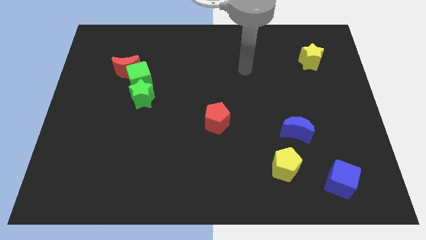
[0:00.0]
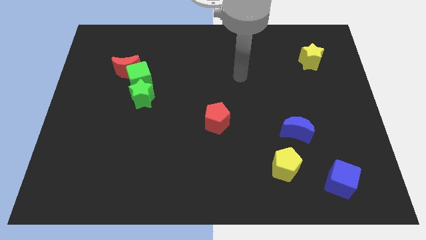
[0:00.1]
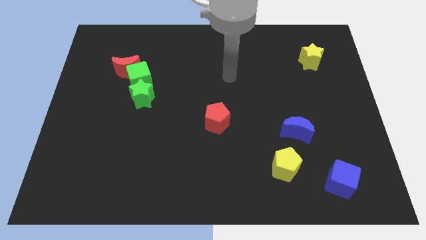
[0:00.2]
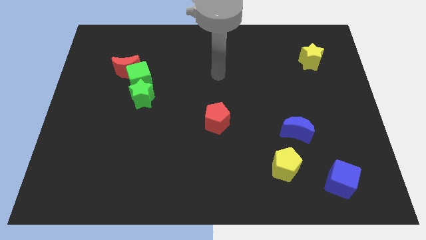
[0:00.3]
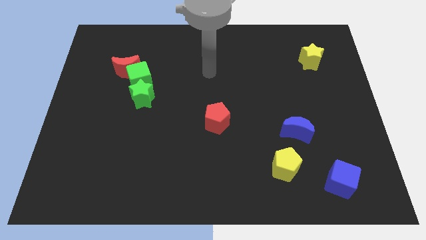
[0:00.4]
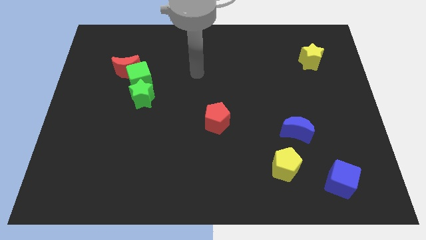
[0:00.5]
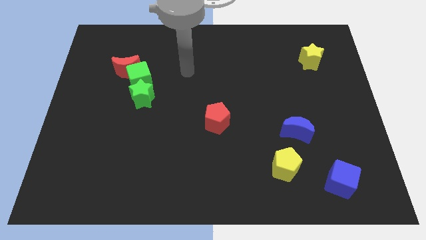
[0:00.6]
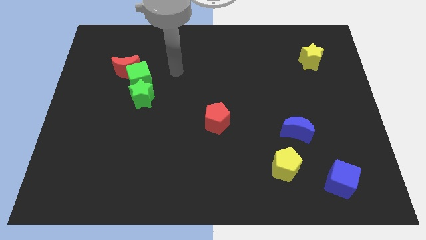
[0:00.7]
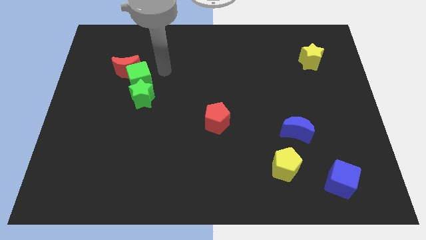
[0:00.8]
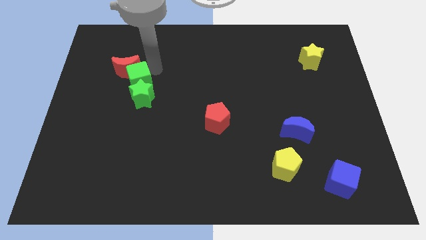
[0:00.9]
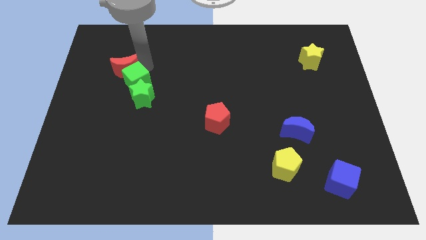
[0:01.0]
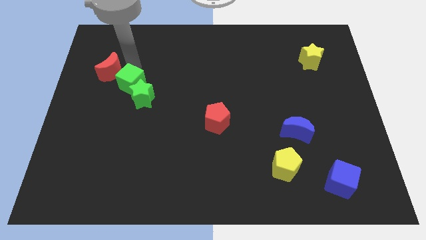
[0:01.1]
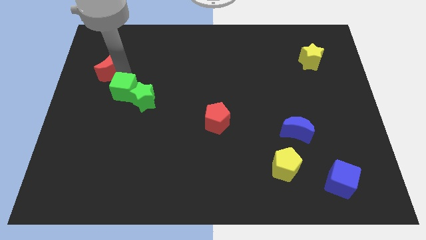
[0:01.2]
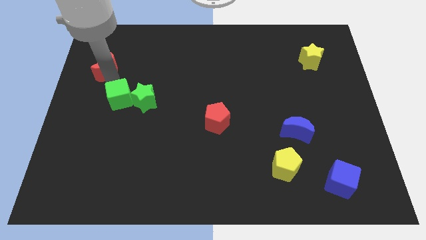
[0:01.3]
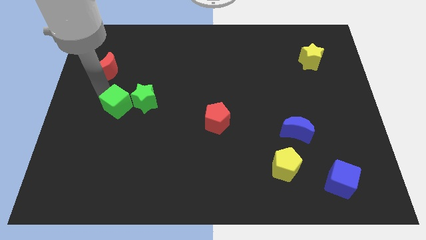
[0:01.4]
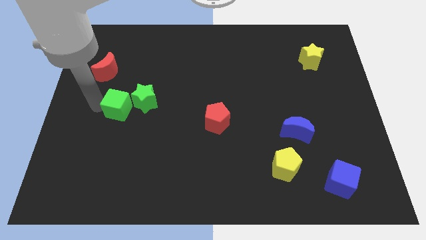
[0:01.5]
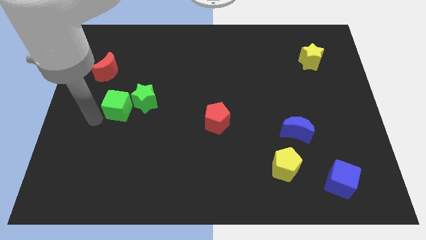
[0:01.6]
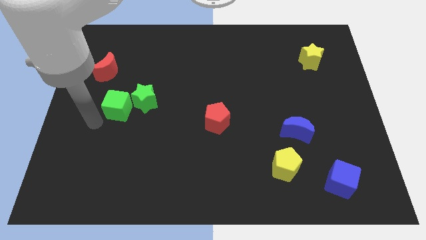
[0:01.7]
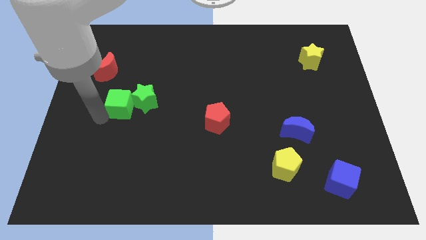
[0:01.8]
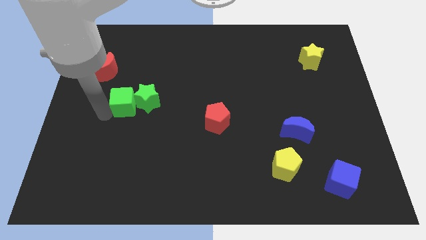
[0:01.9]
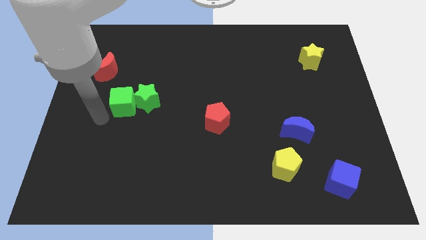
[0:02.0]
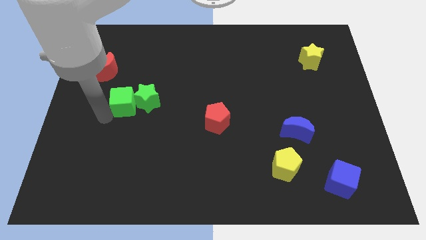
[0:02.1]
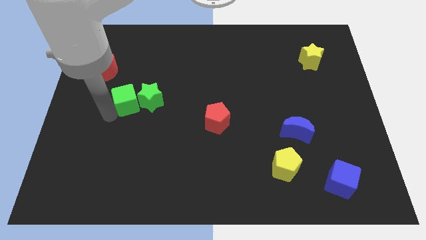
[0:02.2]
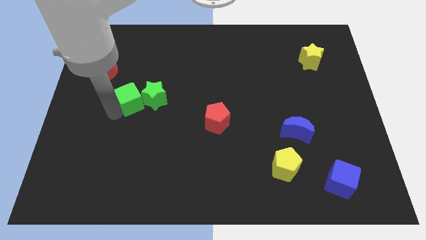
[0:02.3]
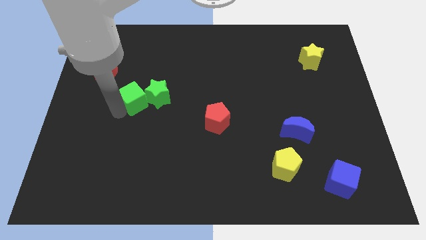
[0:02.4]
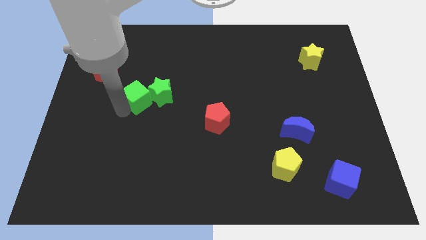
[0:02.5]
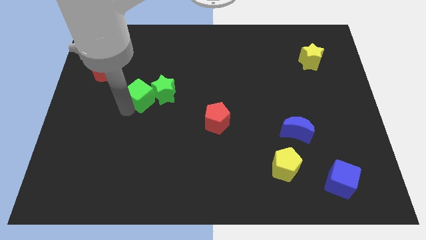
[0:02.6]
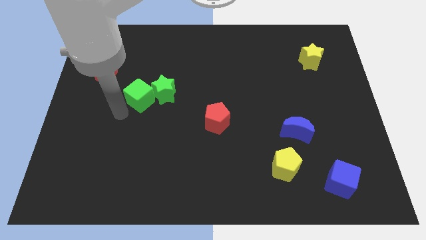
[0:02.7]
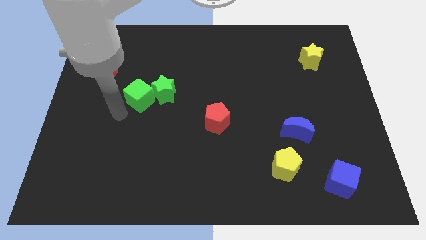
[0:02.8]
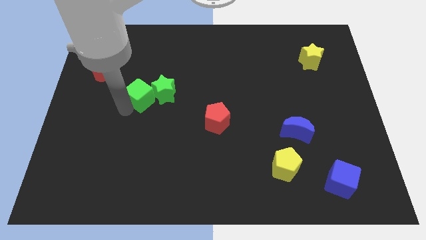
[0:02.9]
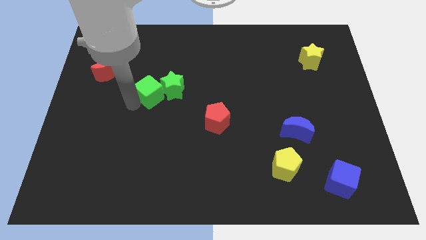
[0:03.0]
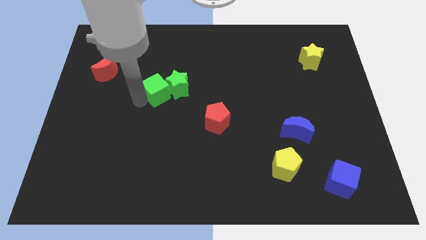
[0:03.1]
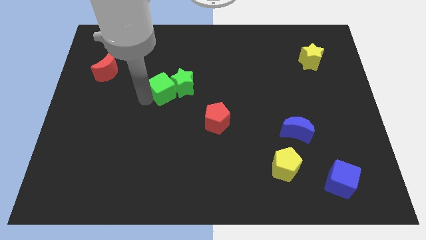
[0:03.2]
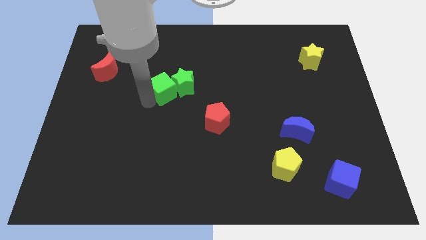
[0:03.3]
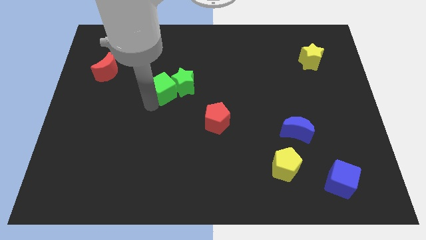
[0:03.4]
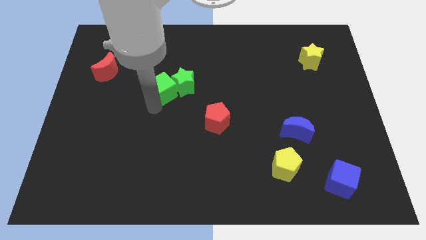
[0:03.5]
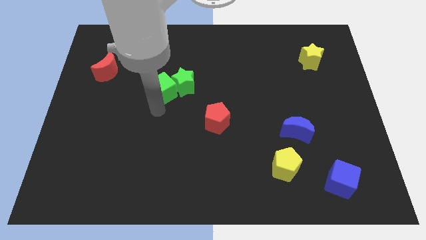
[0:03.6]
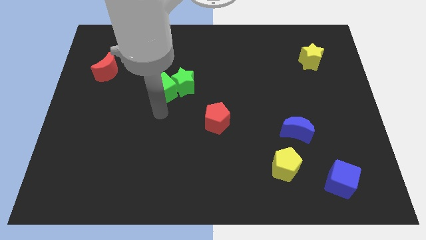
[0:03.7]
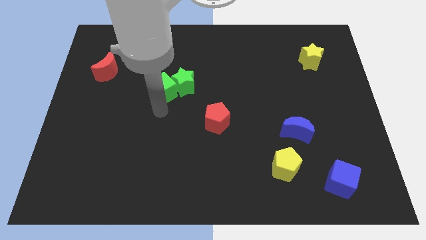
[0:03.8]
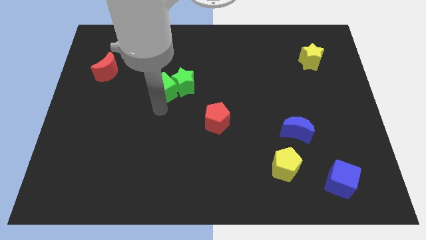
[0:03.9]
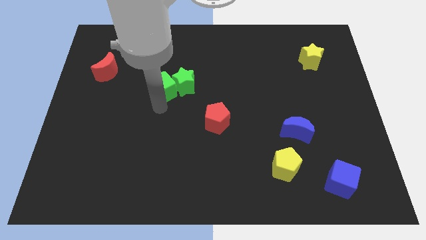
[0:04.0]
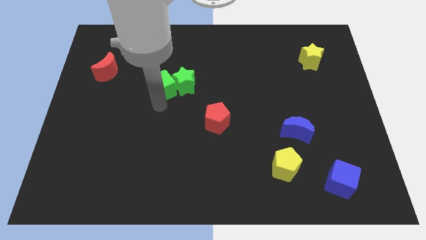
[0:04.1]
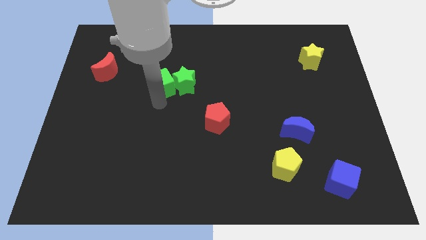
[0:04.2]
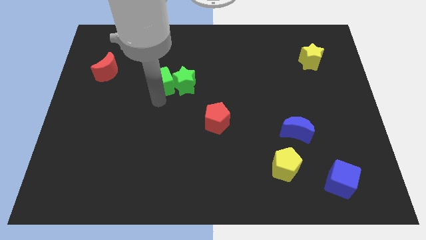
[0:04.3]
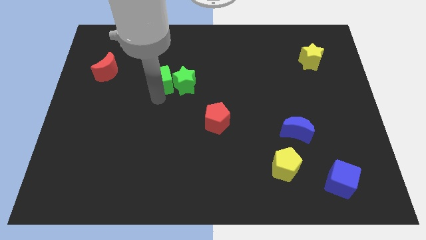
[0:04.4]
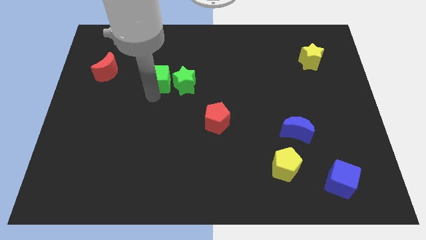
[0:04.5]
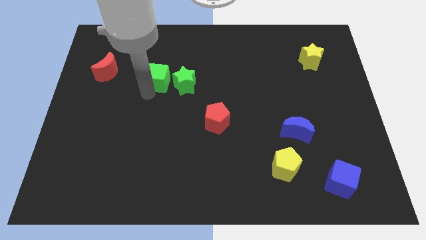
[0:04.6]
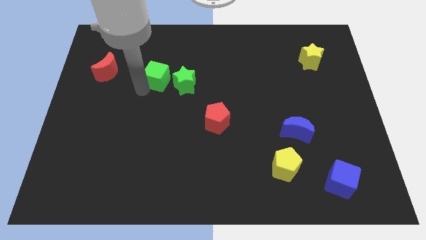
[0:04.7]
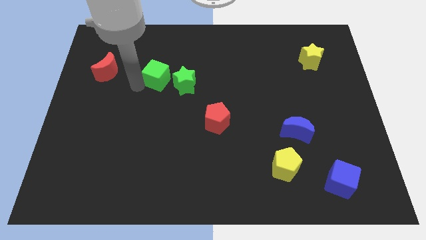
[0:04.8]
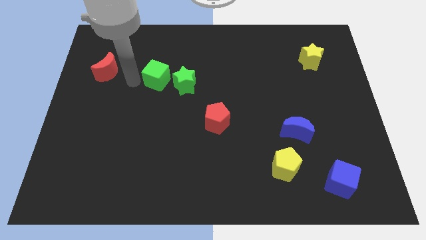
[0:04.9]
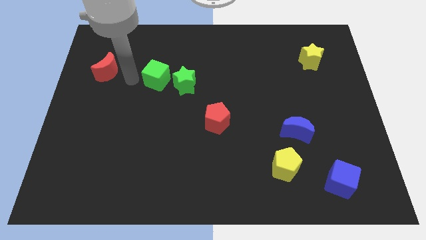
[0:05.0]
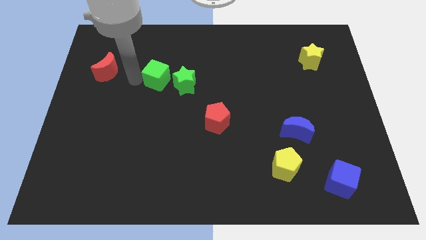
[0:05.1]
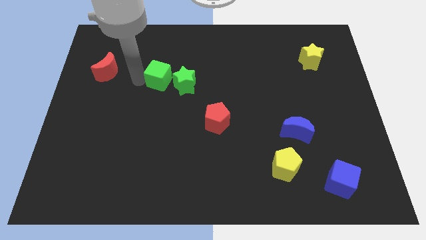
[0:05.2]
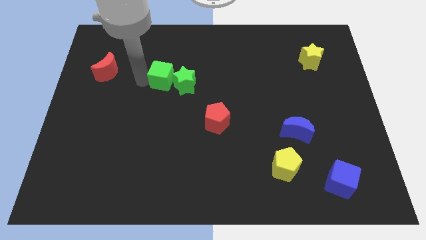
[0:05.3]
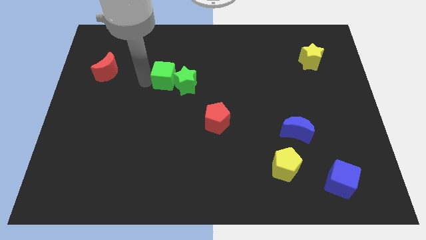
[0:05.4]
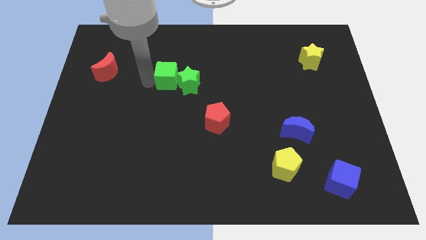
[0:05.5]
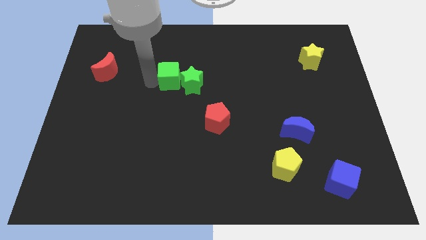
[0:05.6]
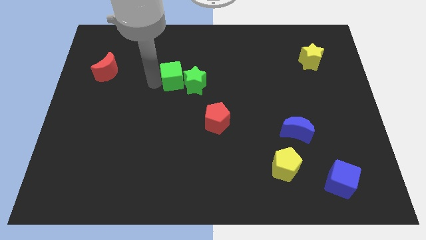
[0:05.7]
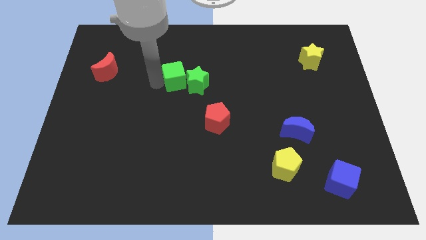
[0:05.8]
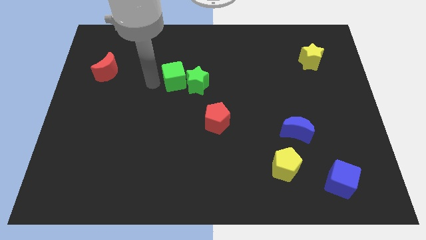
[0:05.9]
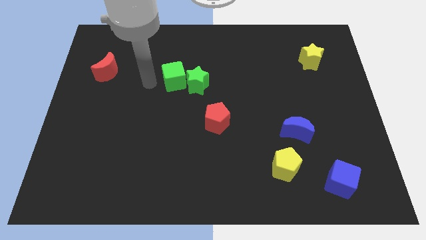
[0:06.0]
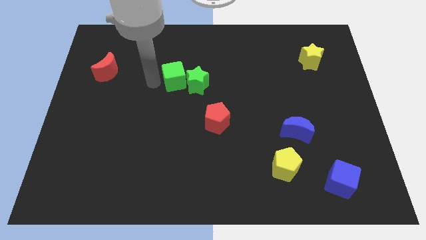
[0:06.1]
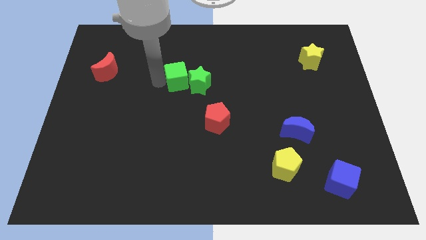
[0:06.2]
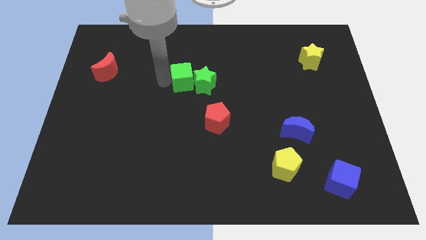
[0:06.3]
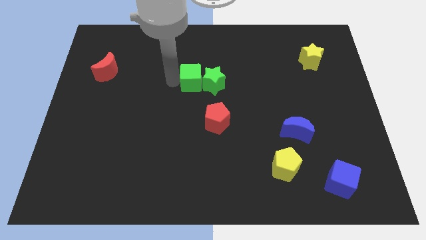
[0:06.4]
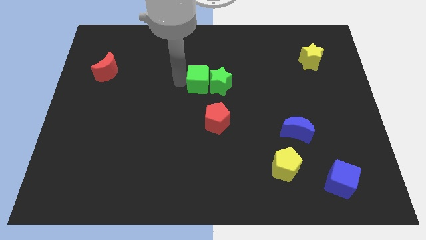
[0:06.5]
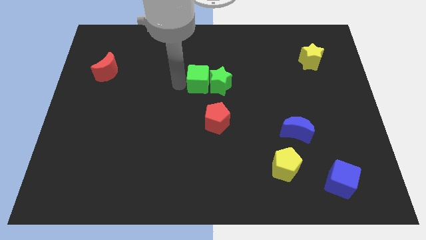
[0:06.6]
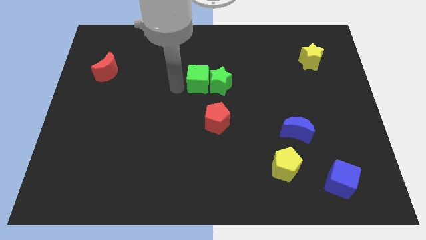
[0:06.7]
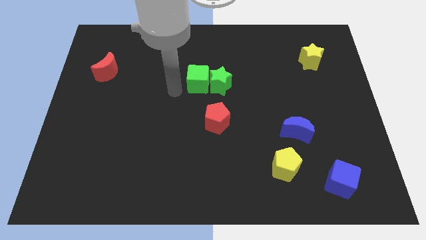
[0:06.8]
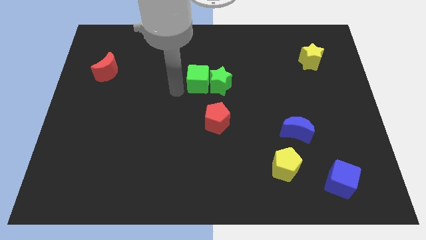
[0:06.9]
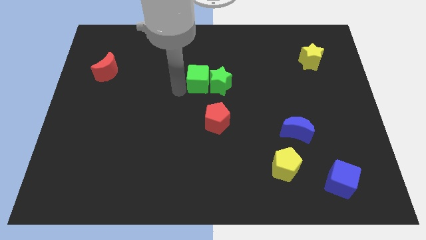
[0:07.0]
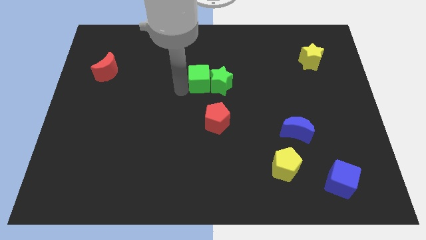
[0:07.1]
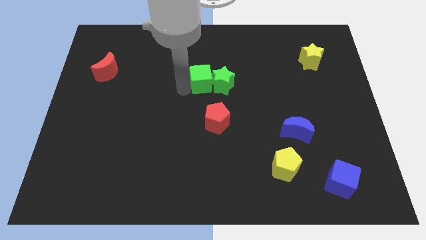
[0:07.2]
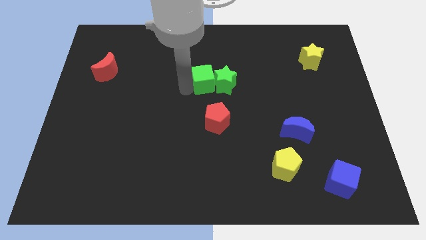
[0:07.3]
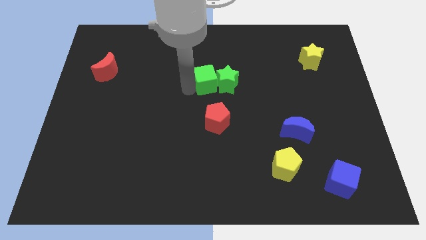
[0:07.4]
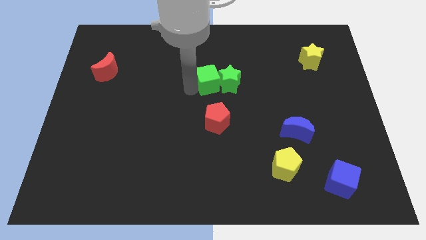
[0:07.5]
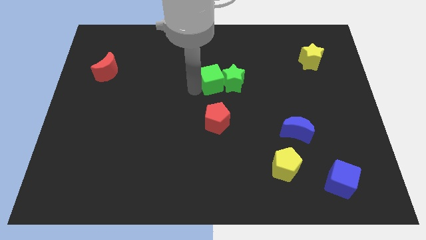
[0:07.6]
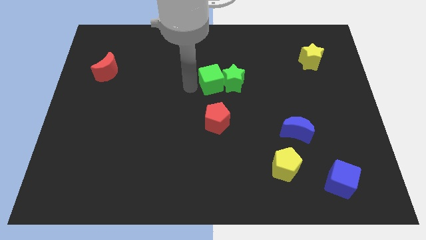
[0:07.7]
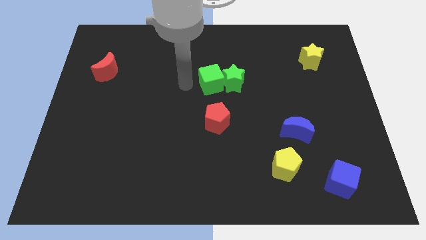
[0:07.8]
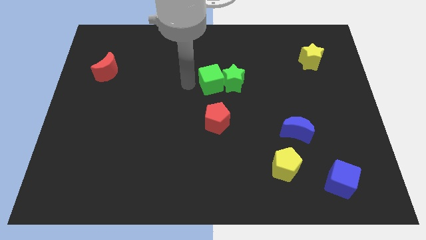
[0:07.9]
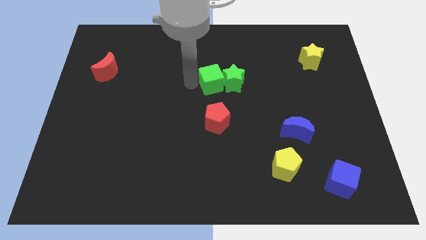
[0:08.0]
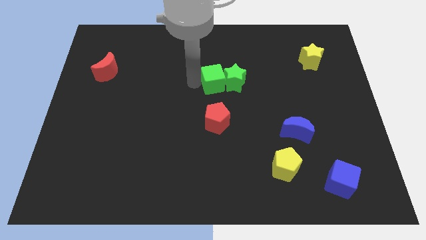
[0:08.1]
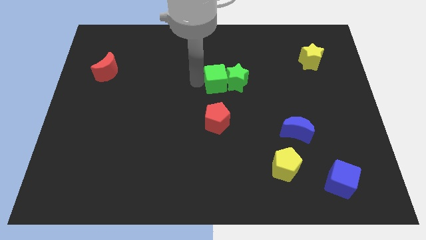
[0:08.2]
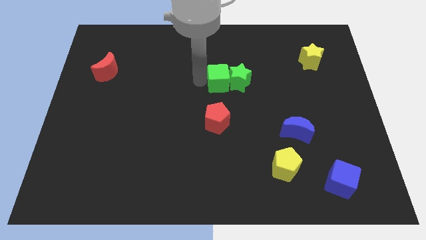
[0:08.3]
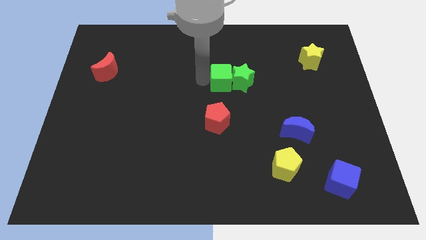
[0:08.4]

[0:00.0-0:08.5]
move the green cube to the right

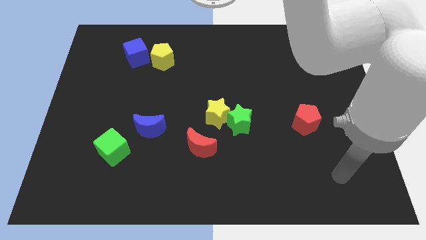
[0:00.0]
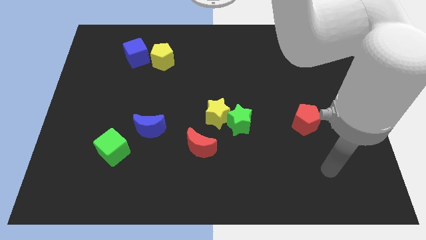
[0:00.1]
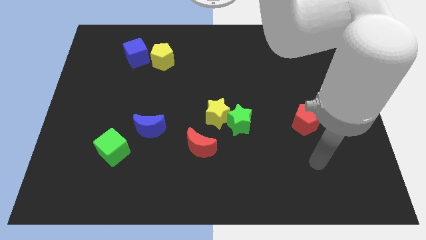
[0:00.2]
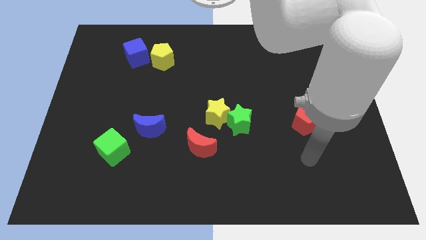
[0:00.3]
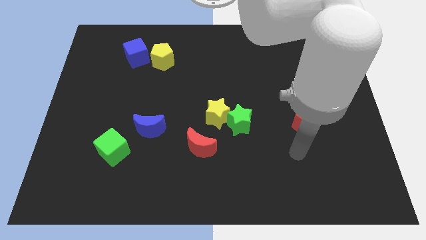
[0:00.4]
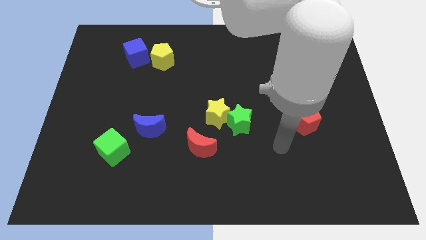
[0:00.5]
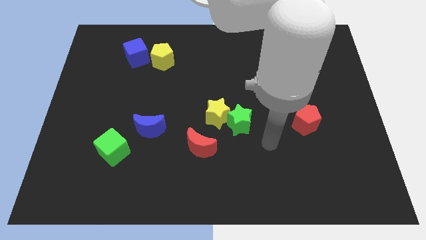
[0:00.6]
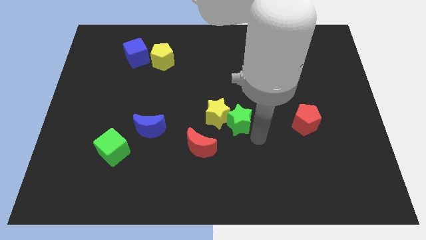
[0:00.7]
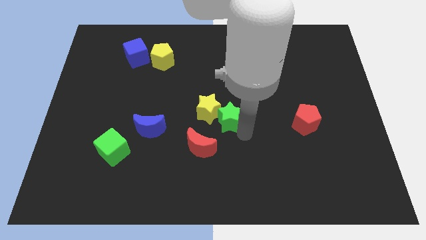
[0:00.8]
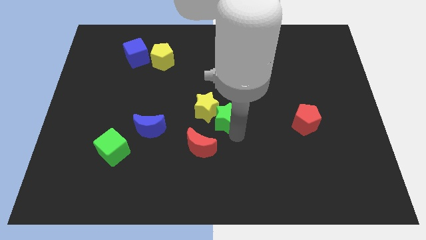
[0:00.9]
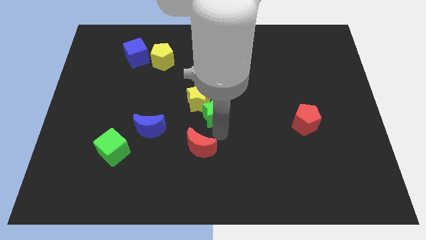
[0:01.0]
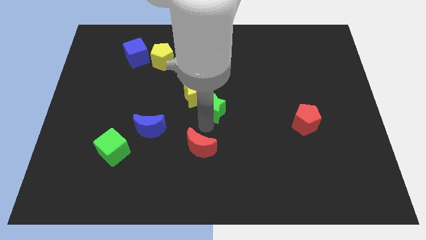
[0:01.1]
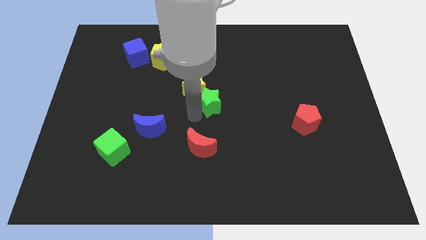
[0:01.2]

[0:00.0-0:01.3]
slightly slide the yellow star up
